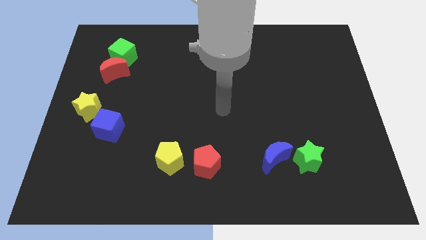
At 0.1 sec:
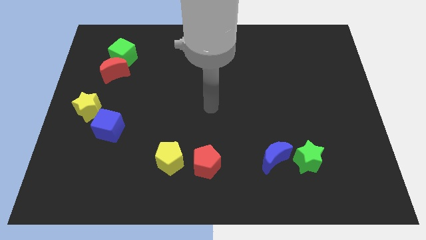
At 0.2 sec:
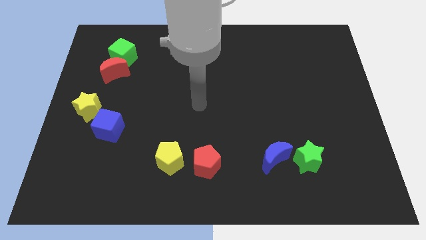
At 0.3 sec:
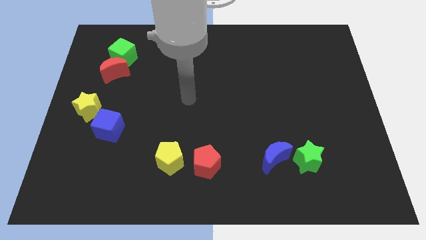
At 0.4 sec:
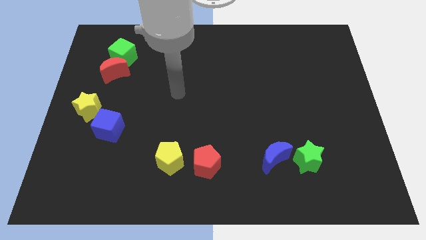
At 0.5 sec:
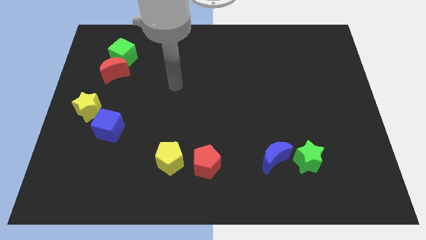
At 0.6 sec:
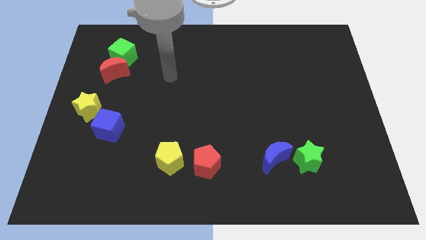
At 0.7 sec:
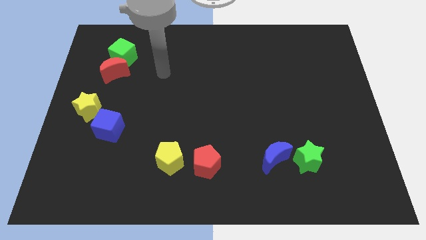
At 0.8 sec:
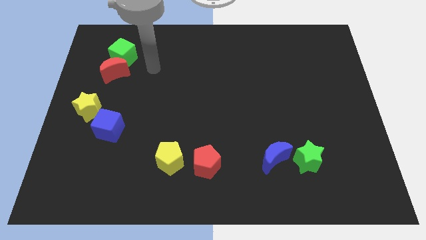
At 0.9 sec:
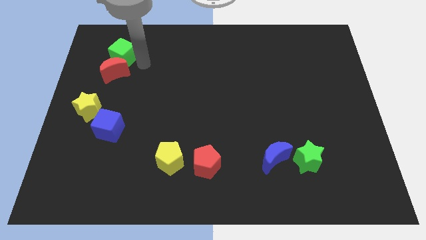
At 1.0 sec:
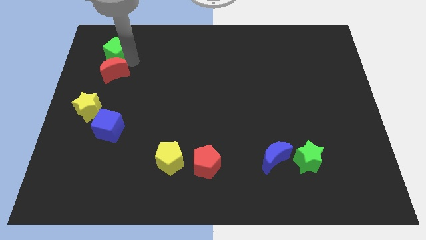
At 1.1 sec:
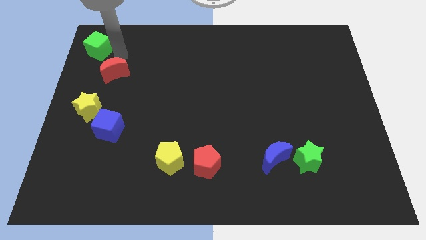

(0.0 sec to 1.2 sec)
separate the red moon from the green cube

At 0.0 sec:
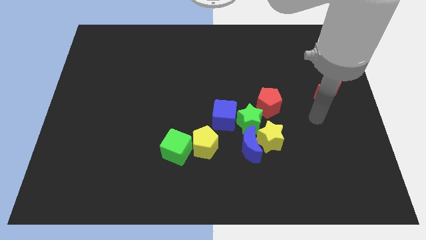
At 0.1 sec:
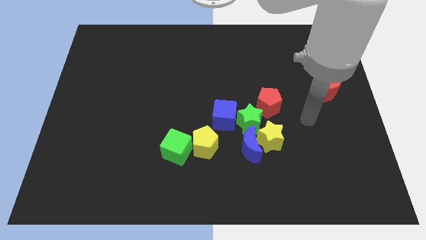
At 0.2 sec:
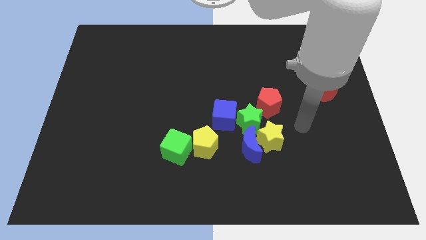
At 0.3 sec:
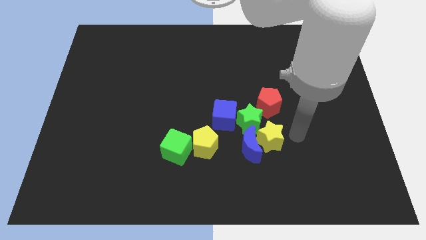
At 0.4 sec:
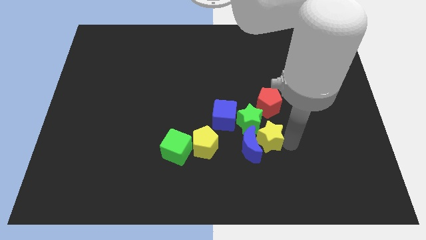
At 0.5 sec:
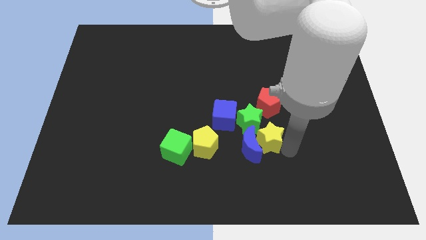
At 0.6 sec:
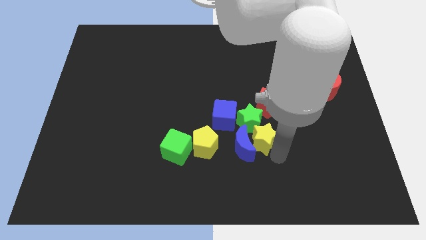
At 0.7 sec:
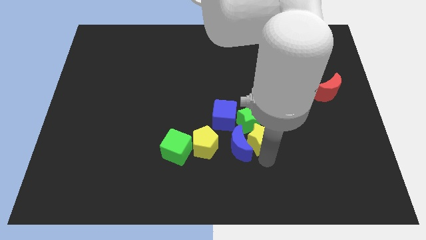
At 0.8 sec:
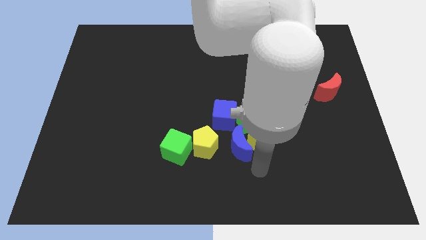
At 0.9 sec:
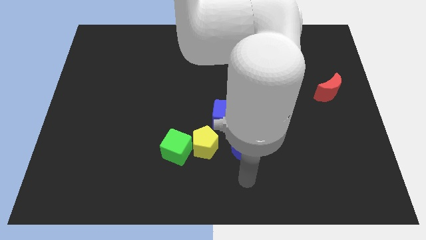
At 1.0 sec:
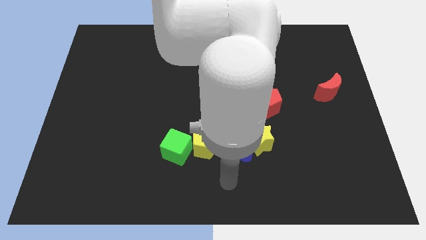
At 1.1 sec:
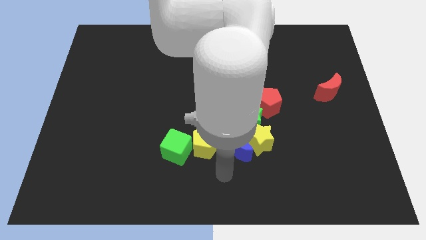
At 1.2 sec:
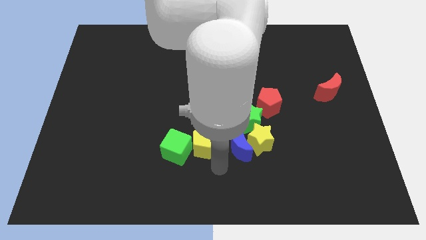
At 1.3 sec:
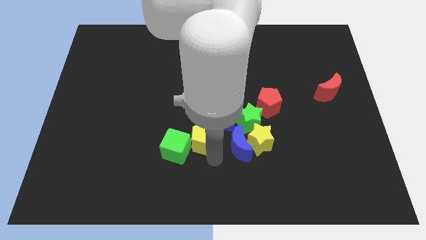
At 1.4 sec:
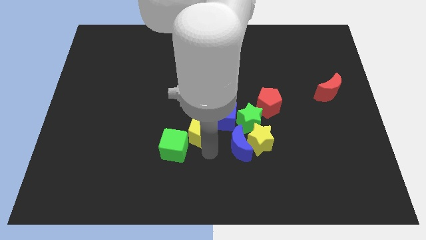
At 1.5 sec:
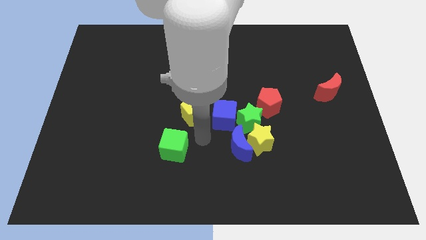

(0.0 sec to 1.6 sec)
separate the green cube from the yellow pentagon

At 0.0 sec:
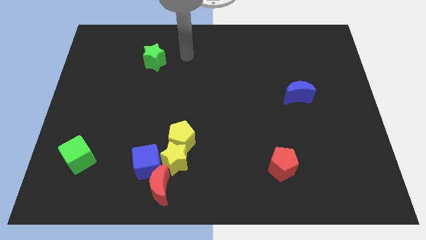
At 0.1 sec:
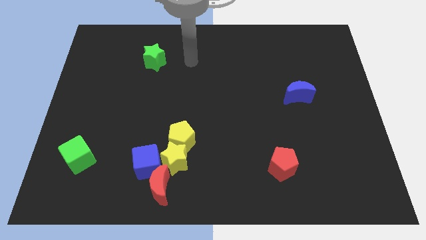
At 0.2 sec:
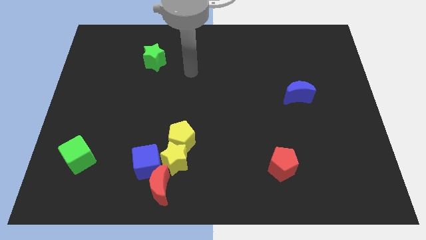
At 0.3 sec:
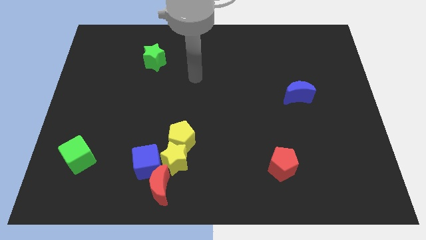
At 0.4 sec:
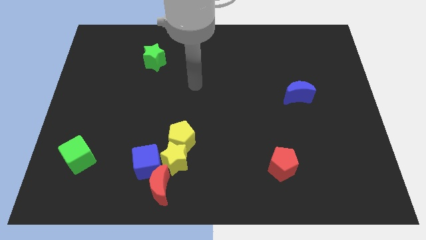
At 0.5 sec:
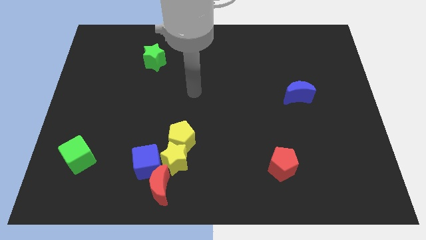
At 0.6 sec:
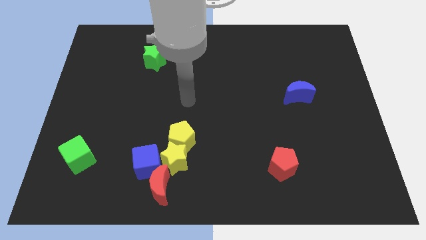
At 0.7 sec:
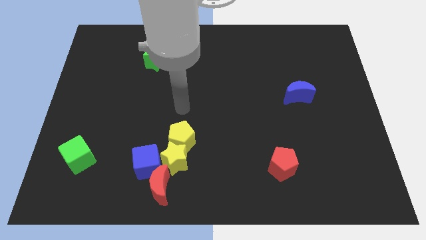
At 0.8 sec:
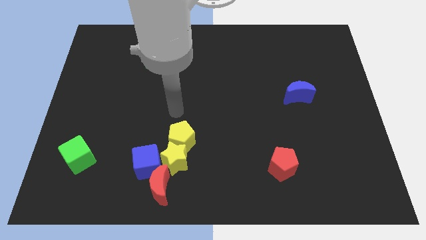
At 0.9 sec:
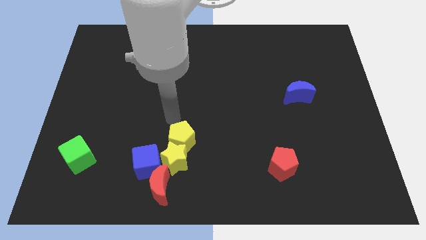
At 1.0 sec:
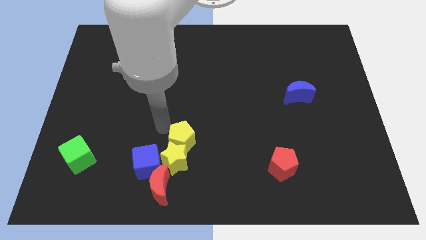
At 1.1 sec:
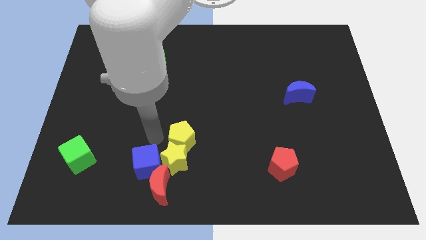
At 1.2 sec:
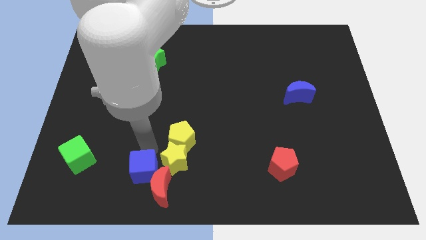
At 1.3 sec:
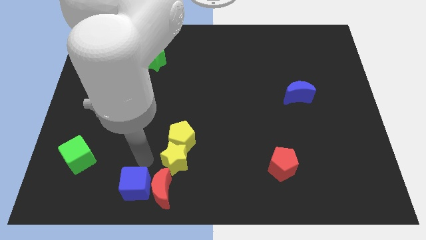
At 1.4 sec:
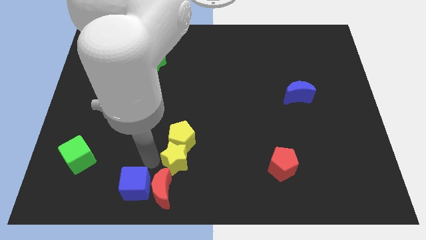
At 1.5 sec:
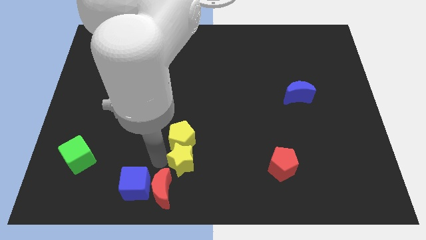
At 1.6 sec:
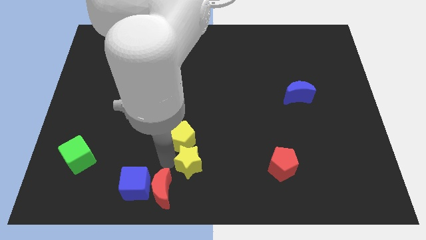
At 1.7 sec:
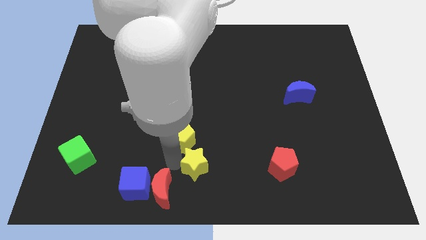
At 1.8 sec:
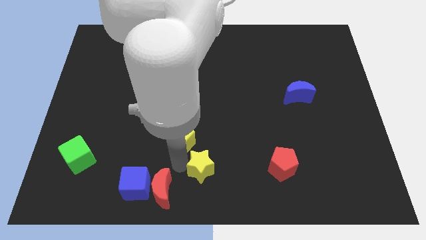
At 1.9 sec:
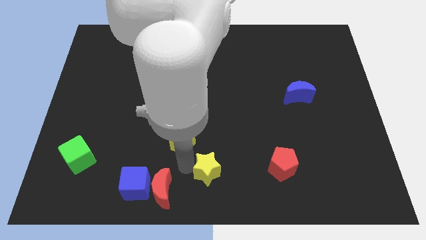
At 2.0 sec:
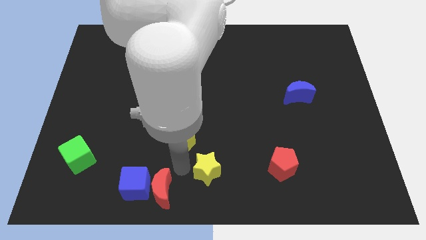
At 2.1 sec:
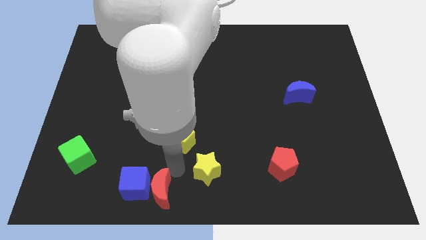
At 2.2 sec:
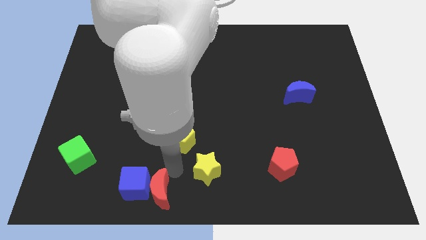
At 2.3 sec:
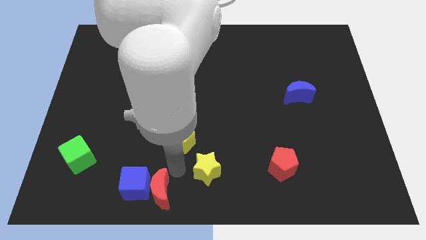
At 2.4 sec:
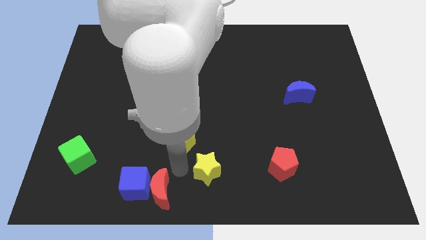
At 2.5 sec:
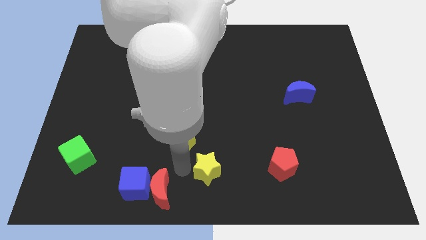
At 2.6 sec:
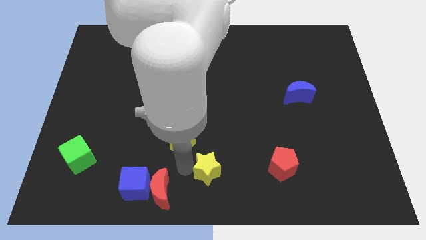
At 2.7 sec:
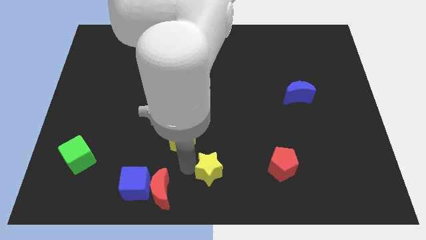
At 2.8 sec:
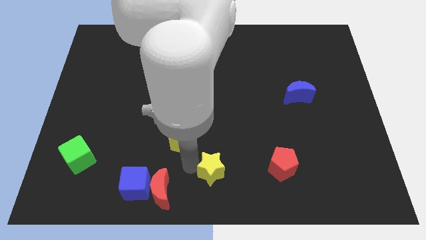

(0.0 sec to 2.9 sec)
separate the yellow star from the yellow pentagon, blue cube, and red moon

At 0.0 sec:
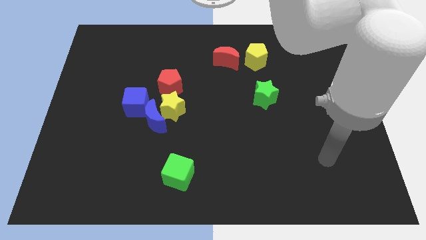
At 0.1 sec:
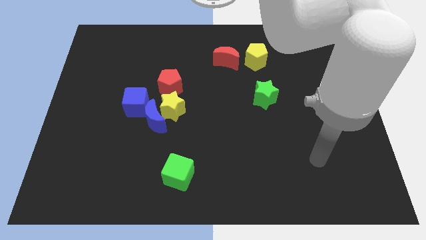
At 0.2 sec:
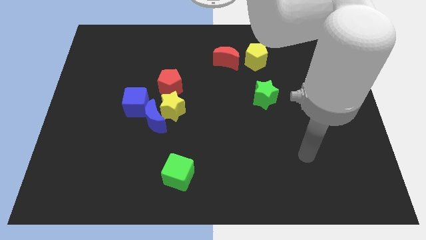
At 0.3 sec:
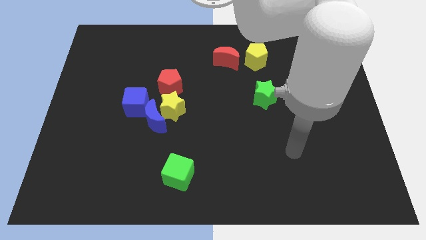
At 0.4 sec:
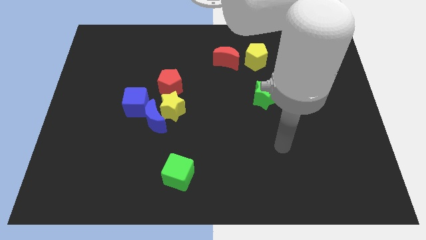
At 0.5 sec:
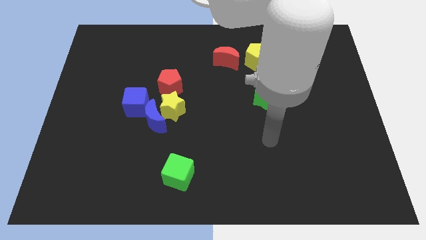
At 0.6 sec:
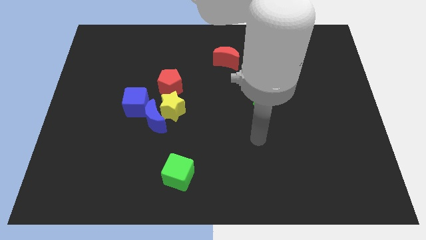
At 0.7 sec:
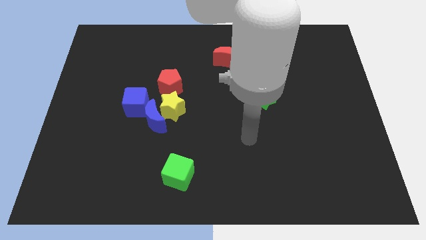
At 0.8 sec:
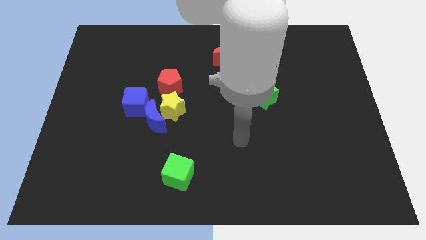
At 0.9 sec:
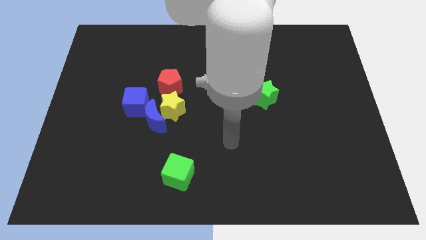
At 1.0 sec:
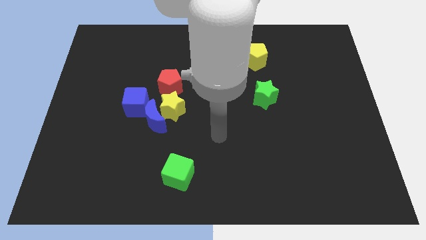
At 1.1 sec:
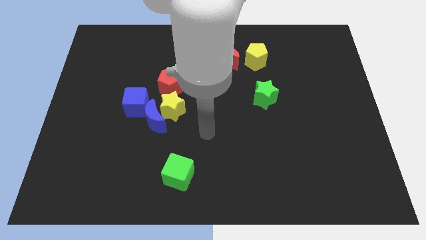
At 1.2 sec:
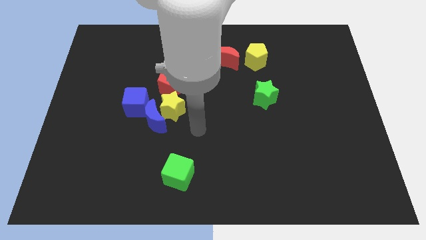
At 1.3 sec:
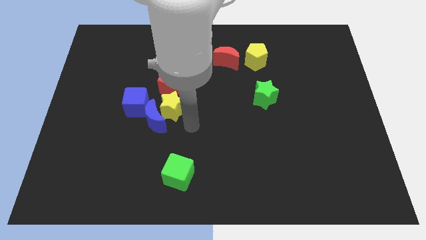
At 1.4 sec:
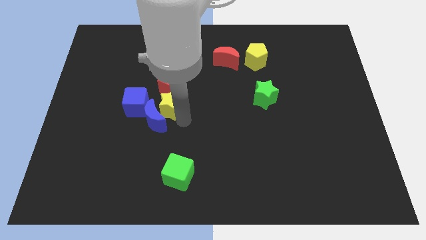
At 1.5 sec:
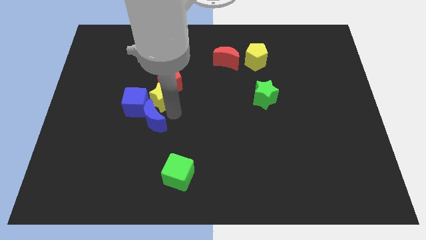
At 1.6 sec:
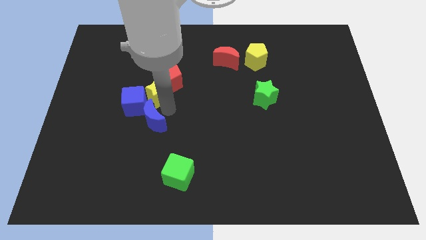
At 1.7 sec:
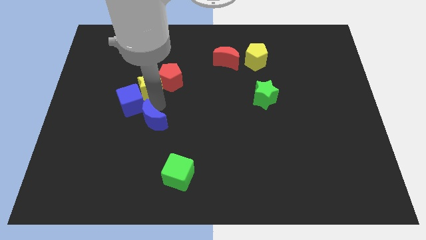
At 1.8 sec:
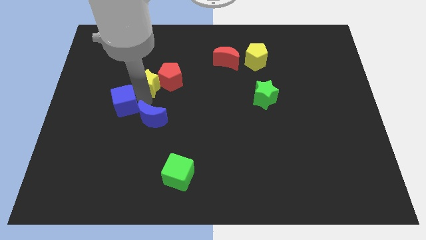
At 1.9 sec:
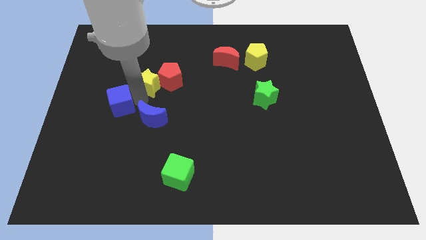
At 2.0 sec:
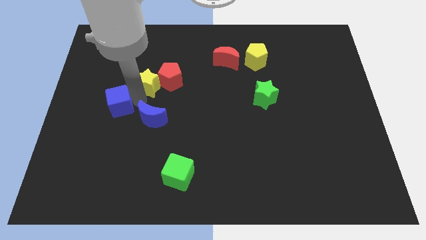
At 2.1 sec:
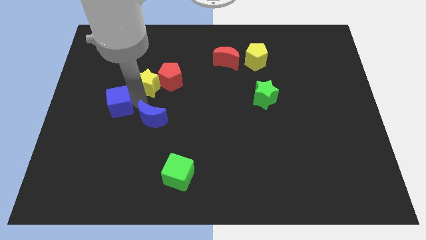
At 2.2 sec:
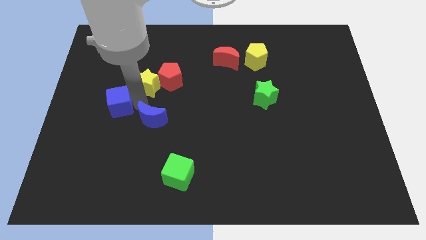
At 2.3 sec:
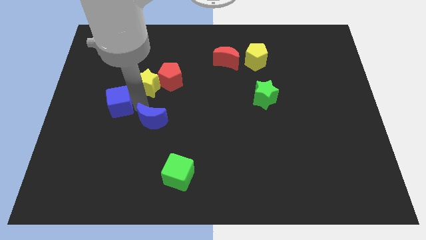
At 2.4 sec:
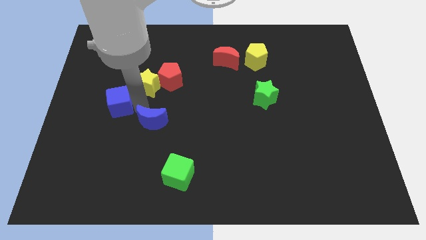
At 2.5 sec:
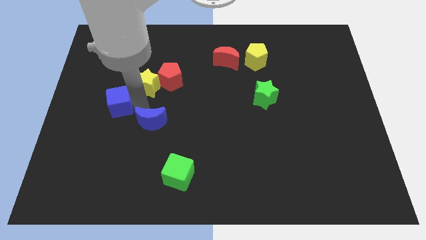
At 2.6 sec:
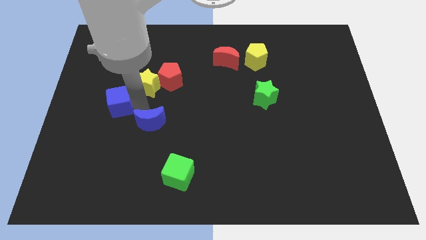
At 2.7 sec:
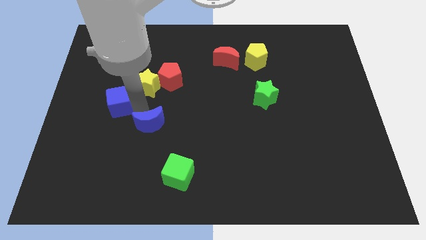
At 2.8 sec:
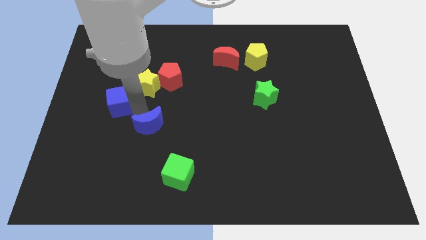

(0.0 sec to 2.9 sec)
pull the blue moon apart from the yellow star and blue cube

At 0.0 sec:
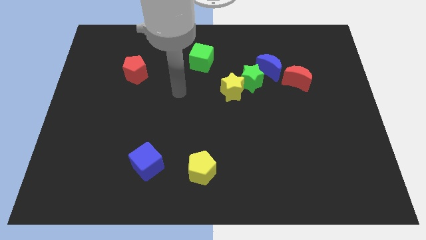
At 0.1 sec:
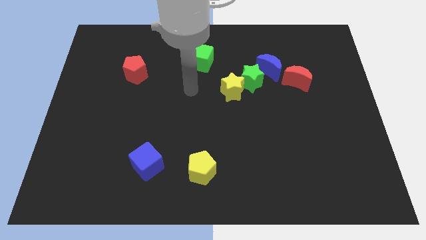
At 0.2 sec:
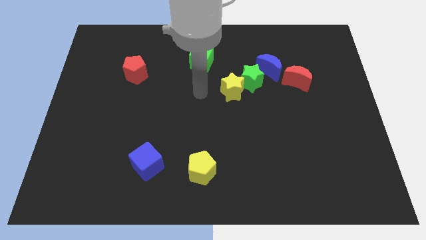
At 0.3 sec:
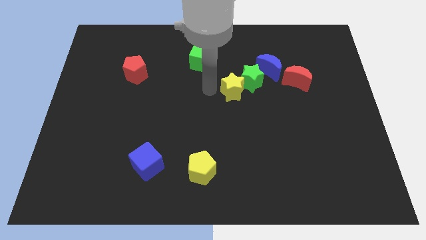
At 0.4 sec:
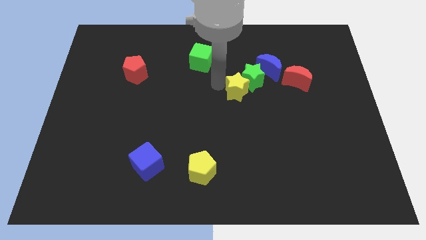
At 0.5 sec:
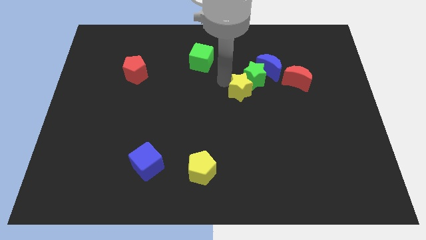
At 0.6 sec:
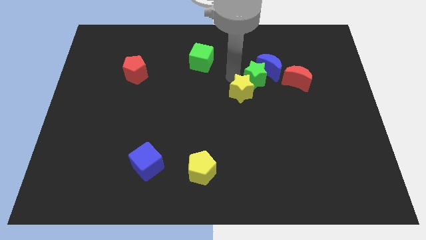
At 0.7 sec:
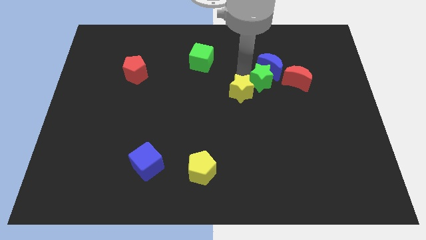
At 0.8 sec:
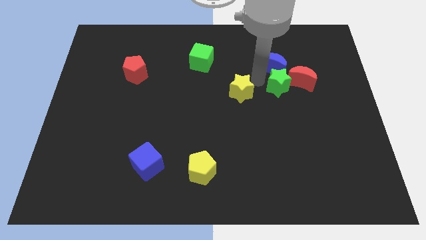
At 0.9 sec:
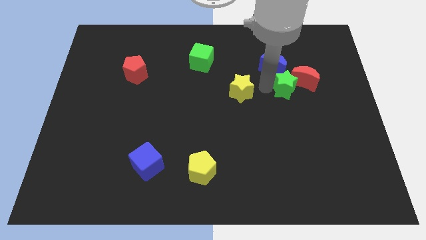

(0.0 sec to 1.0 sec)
separate the yellow star from the green star
